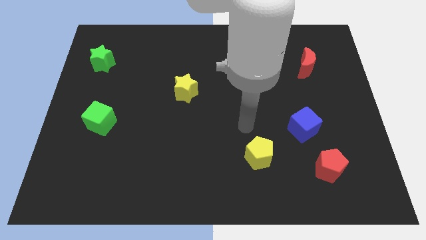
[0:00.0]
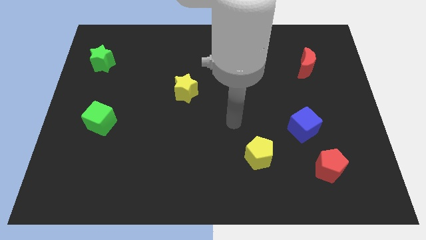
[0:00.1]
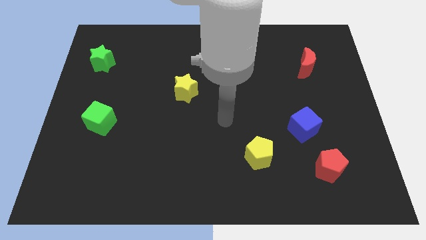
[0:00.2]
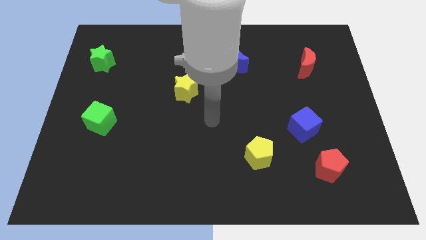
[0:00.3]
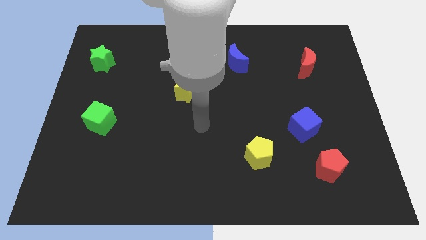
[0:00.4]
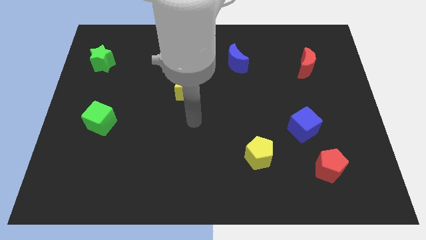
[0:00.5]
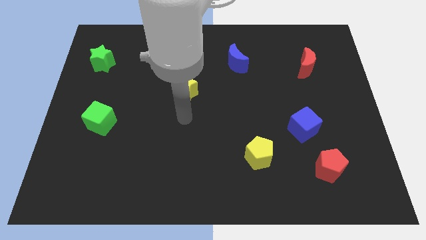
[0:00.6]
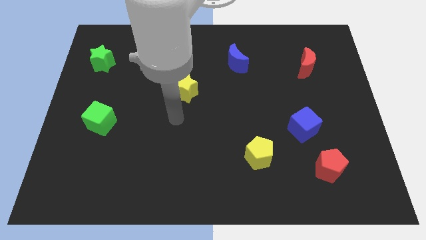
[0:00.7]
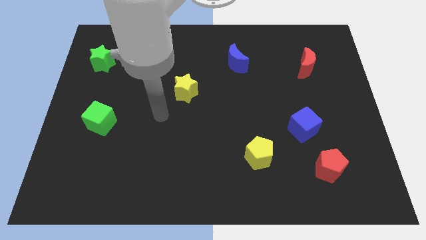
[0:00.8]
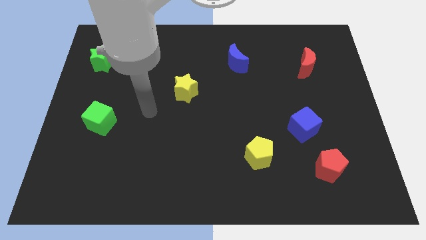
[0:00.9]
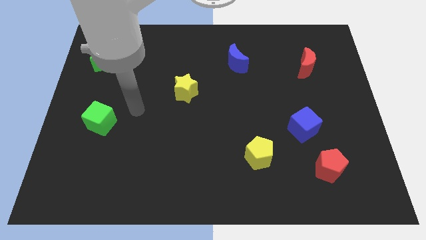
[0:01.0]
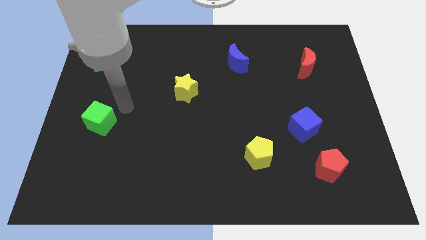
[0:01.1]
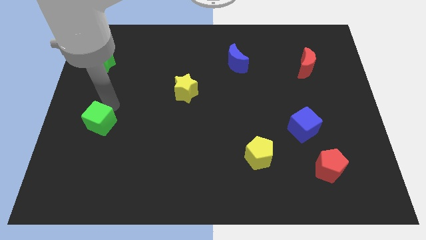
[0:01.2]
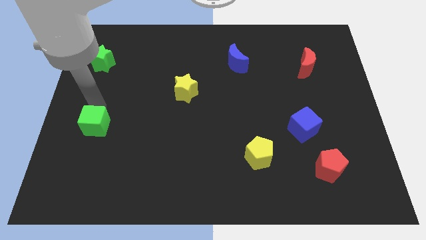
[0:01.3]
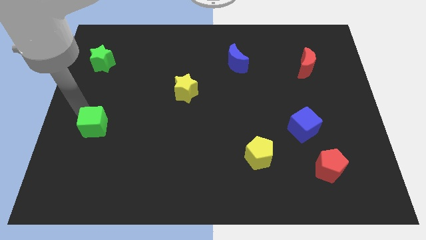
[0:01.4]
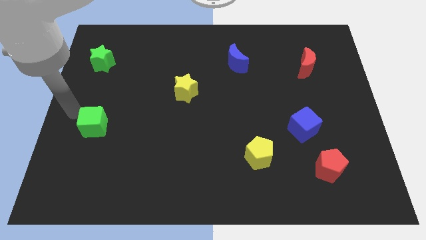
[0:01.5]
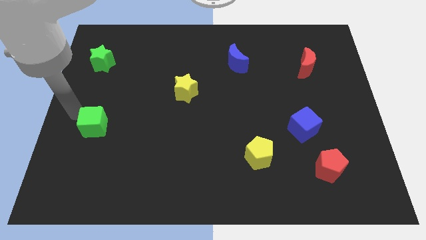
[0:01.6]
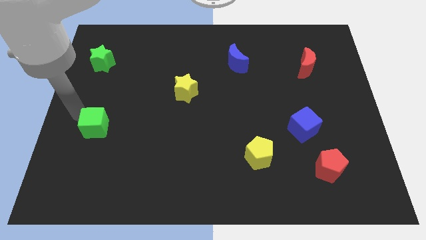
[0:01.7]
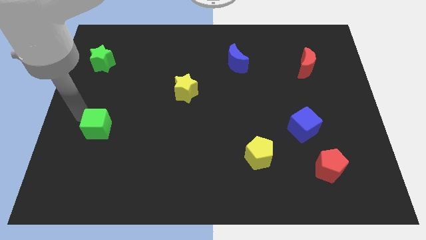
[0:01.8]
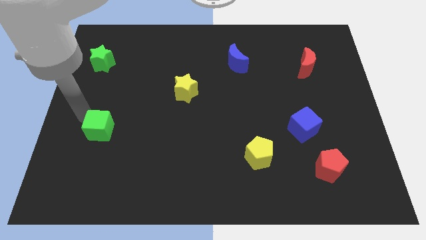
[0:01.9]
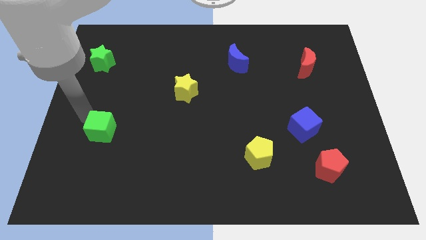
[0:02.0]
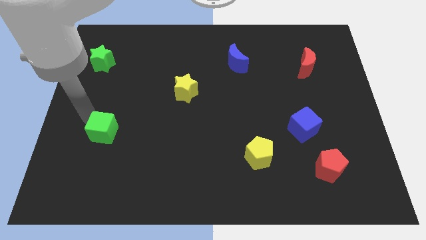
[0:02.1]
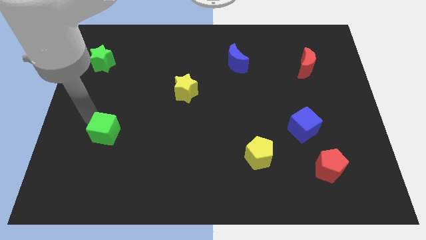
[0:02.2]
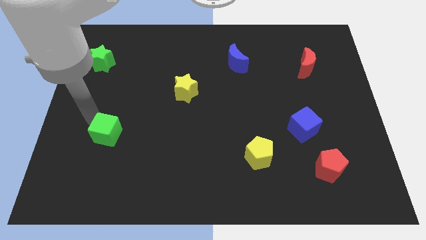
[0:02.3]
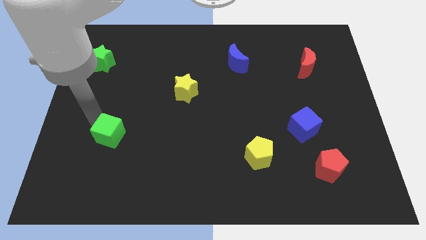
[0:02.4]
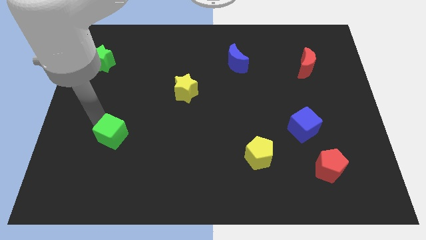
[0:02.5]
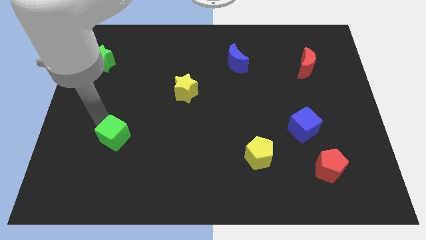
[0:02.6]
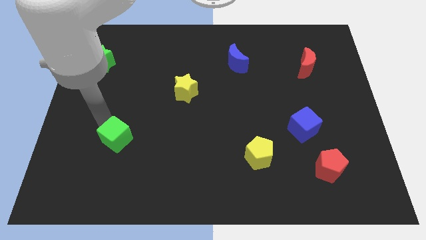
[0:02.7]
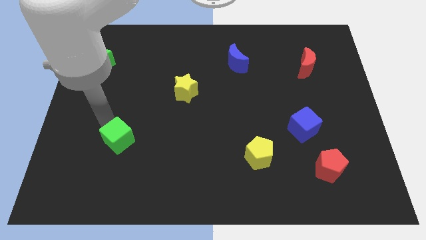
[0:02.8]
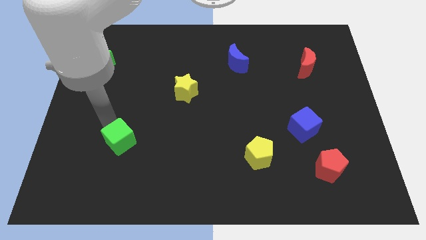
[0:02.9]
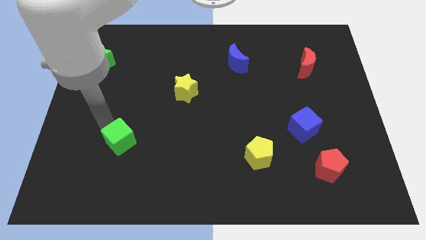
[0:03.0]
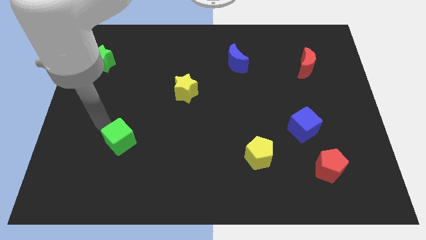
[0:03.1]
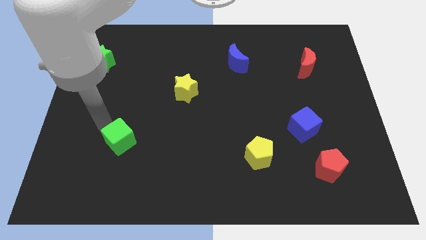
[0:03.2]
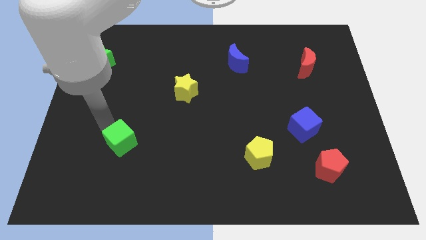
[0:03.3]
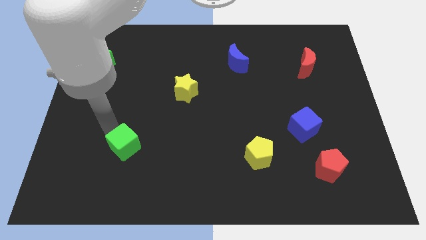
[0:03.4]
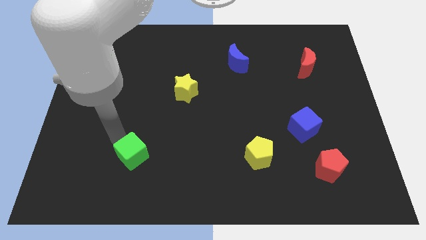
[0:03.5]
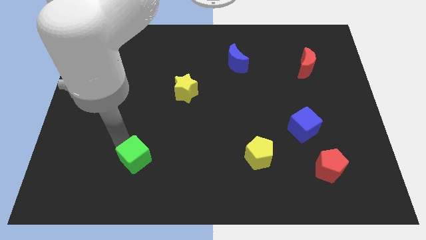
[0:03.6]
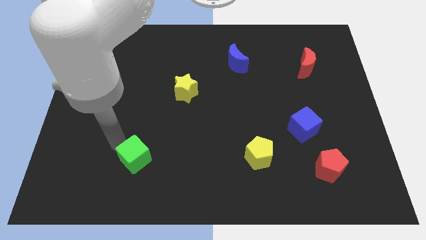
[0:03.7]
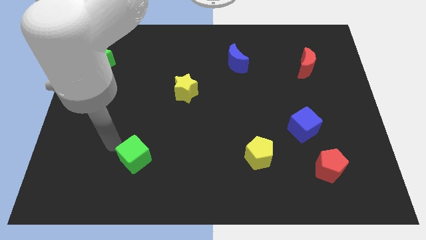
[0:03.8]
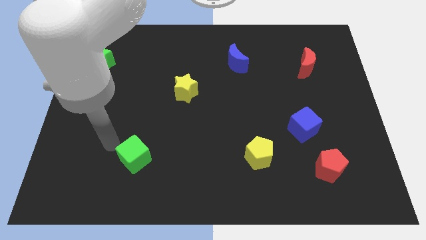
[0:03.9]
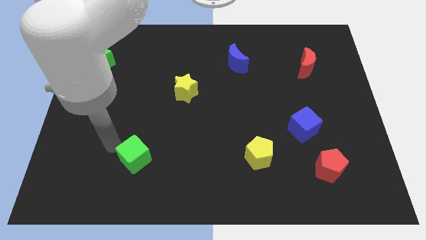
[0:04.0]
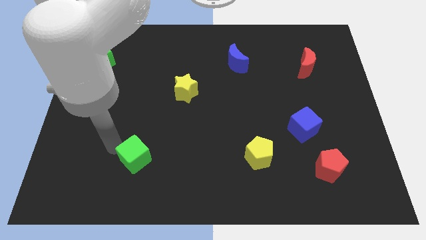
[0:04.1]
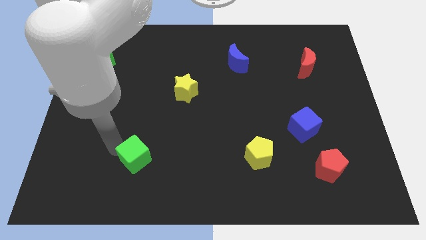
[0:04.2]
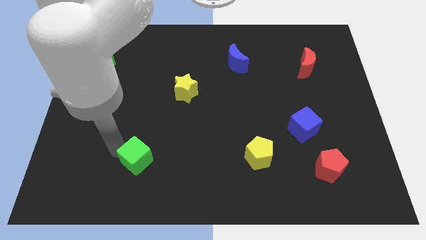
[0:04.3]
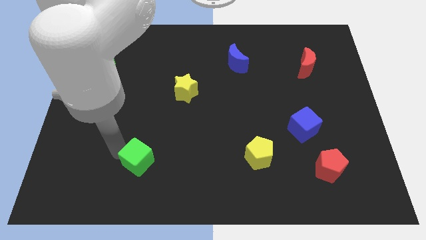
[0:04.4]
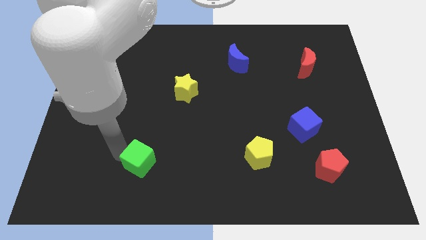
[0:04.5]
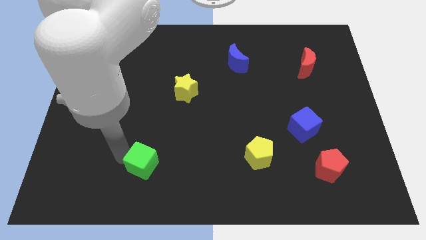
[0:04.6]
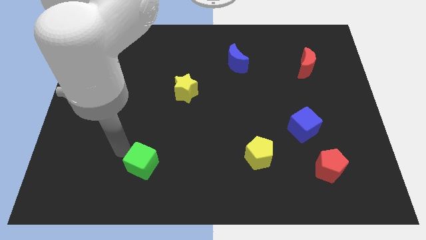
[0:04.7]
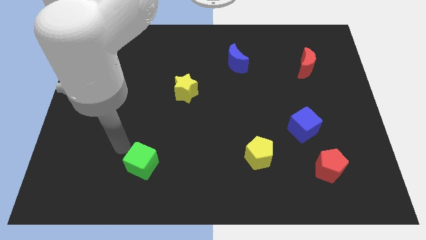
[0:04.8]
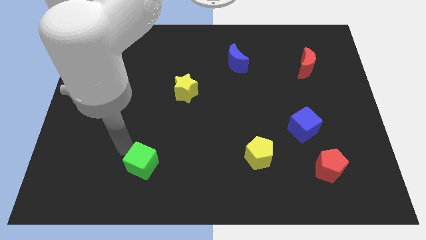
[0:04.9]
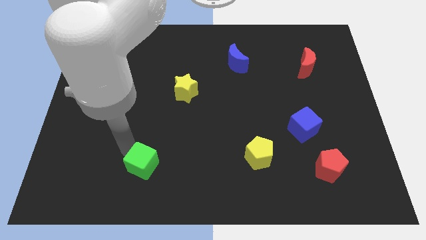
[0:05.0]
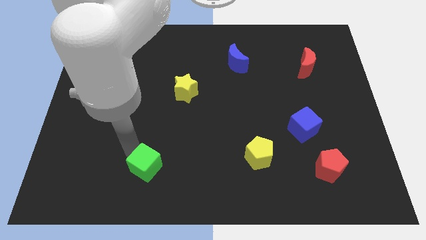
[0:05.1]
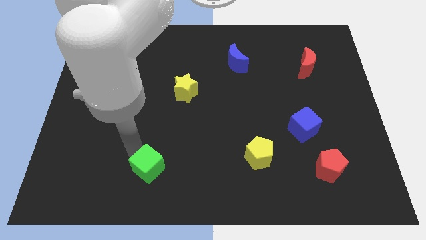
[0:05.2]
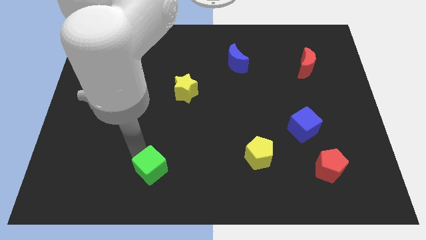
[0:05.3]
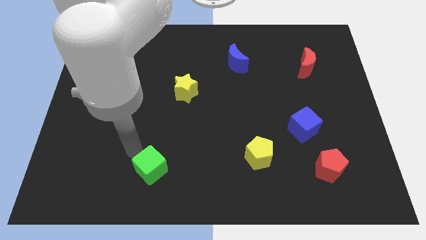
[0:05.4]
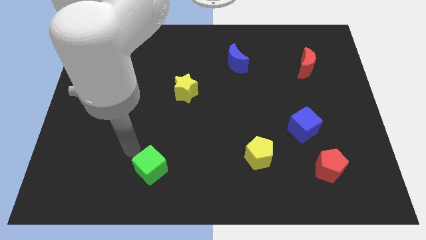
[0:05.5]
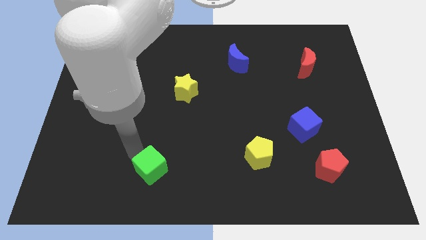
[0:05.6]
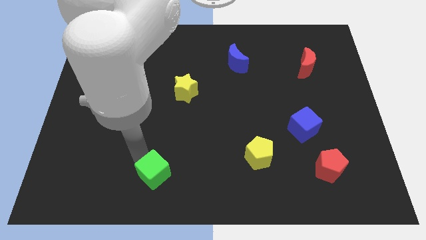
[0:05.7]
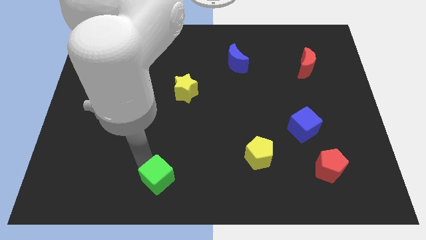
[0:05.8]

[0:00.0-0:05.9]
push the green cube to the bottom side
